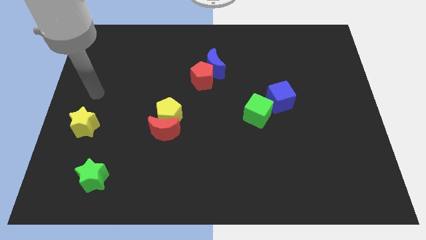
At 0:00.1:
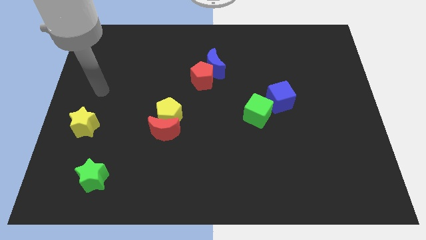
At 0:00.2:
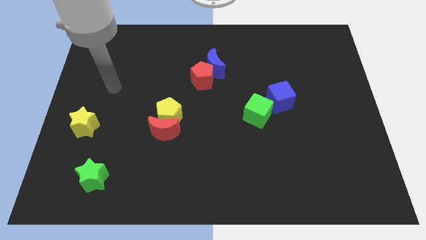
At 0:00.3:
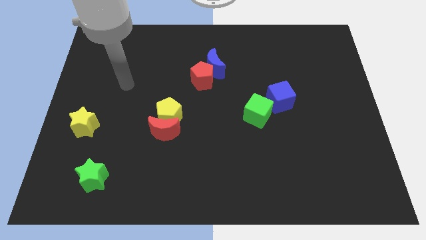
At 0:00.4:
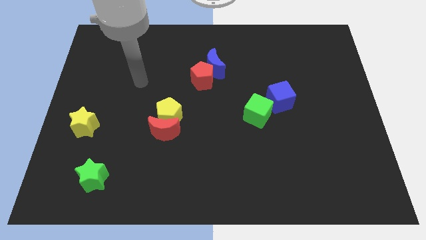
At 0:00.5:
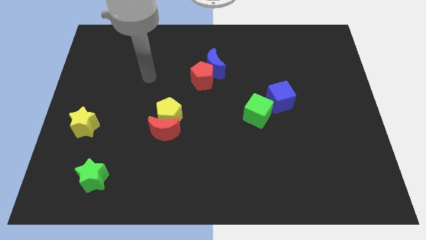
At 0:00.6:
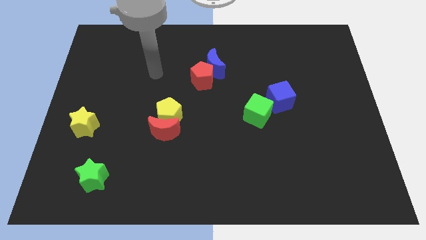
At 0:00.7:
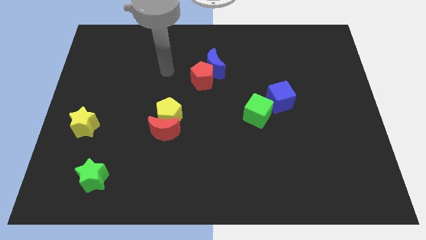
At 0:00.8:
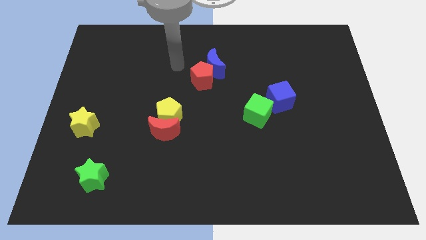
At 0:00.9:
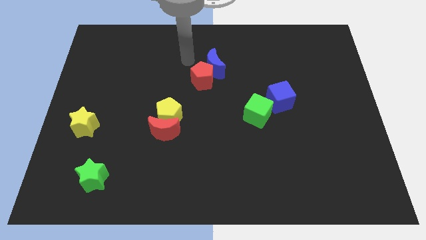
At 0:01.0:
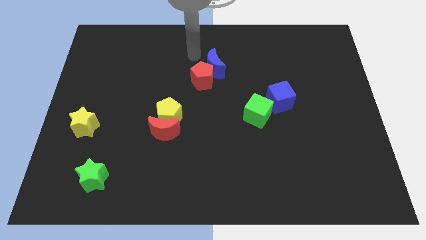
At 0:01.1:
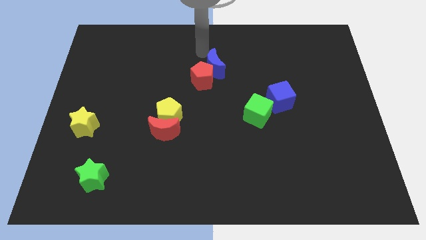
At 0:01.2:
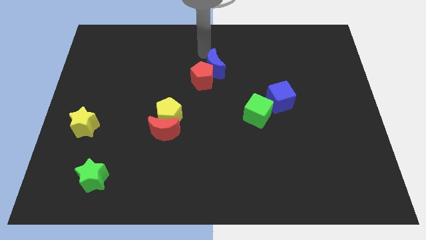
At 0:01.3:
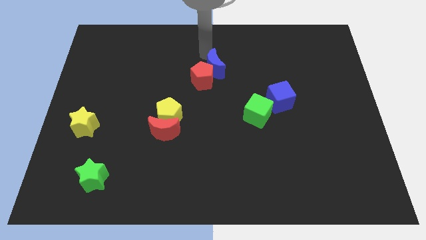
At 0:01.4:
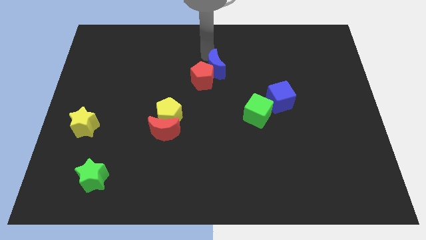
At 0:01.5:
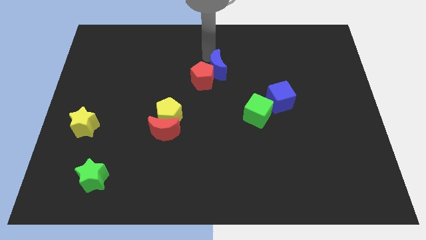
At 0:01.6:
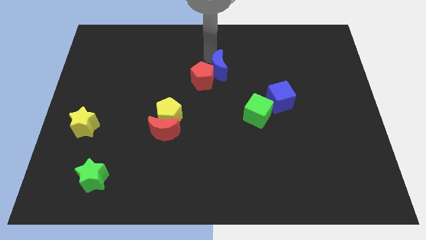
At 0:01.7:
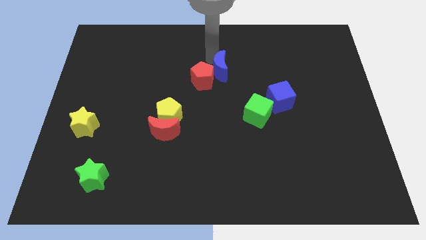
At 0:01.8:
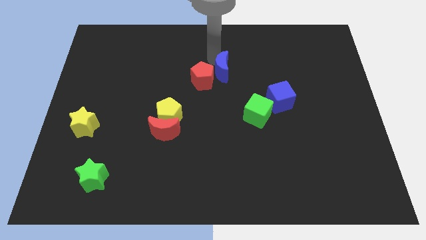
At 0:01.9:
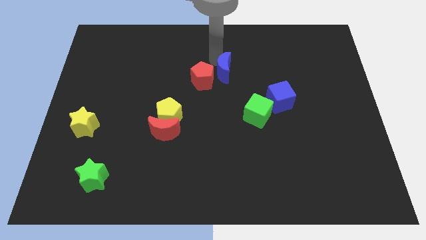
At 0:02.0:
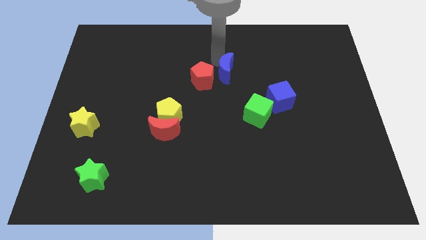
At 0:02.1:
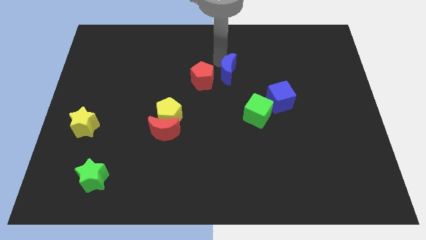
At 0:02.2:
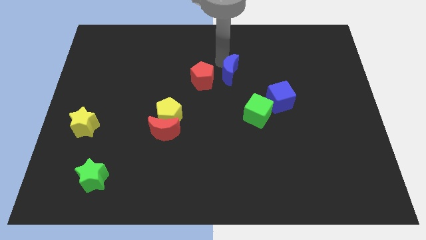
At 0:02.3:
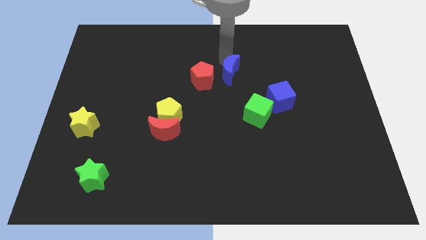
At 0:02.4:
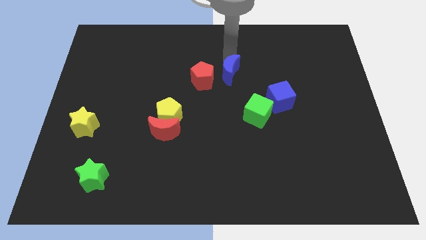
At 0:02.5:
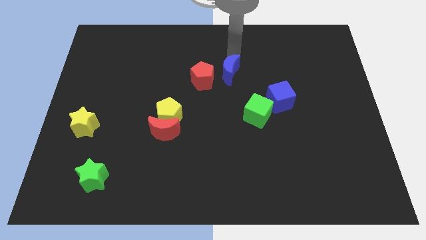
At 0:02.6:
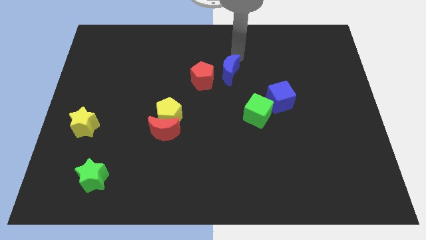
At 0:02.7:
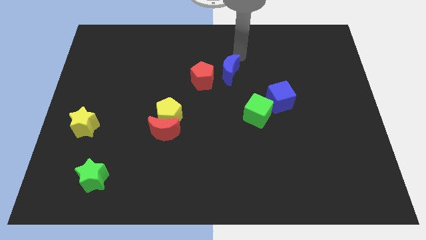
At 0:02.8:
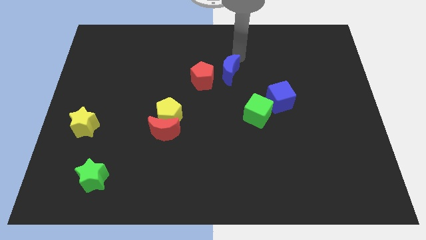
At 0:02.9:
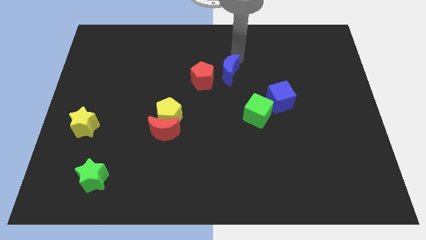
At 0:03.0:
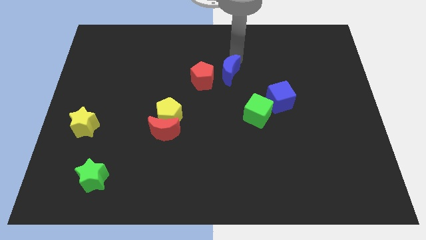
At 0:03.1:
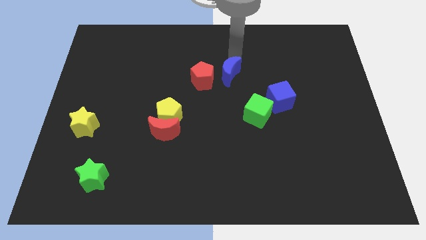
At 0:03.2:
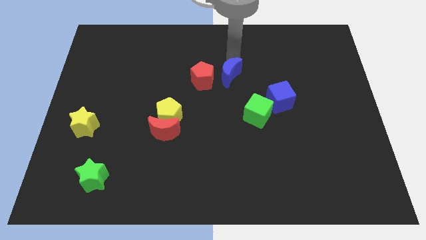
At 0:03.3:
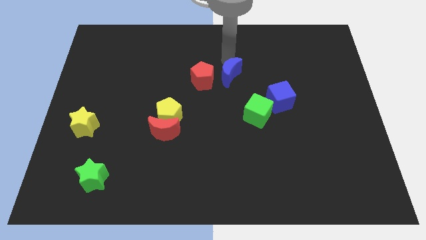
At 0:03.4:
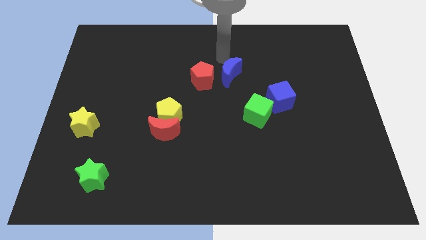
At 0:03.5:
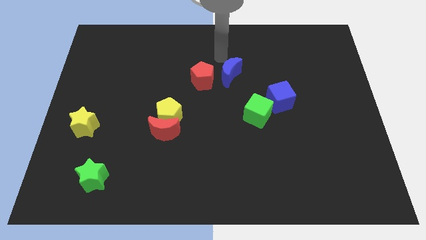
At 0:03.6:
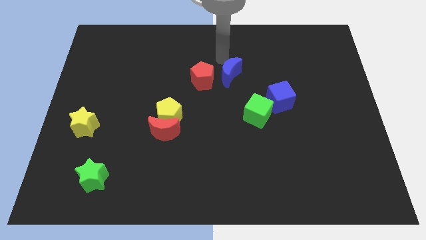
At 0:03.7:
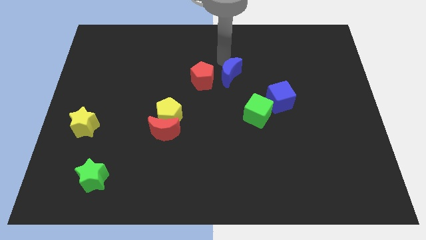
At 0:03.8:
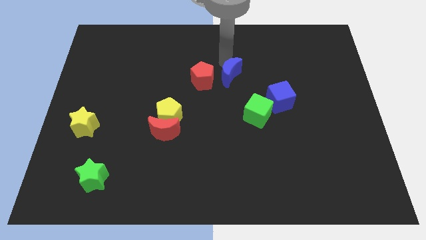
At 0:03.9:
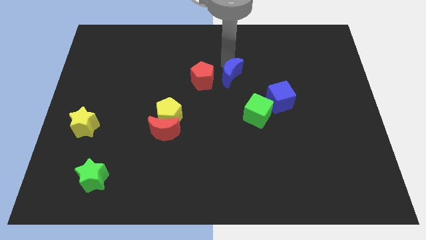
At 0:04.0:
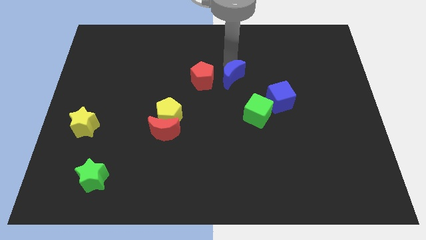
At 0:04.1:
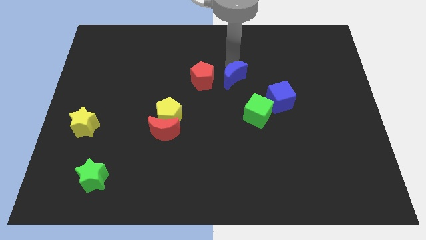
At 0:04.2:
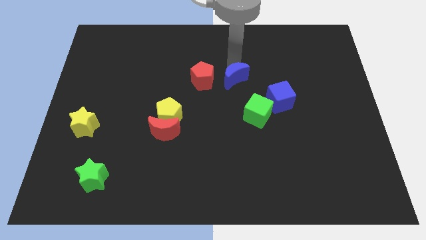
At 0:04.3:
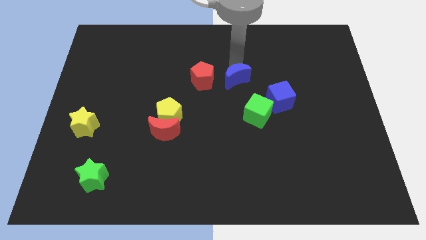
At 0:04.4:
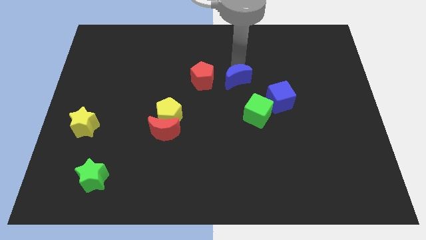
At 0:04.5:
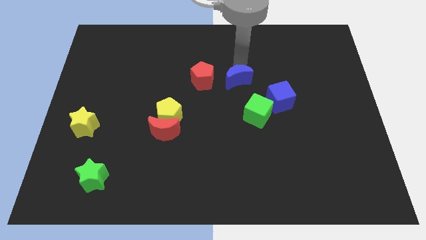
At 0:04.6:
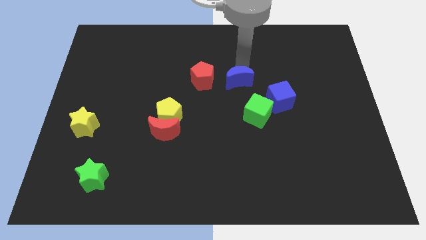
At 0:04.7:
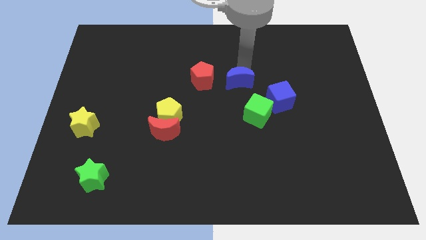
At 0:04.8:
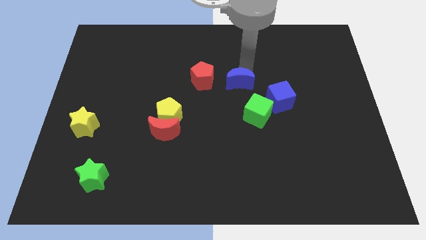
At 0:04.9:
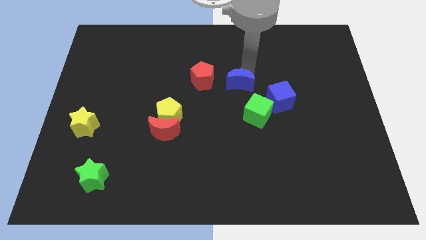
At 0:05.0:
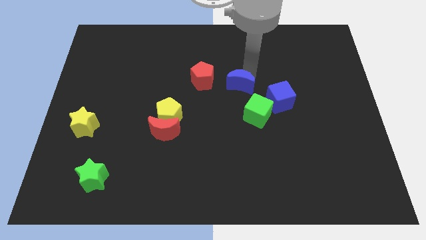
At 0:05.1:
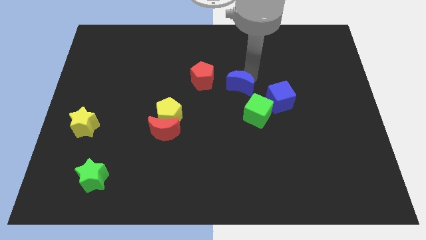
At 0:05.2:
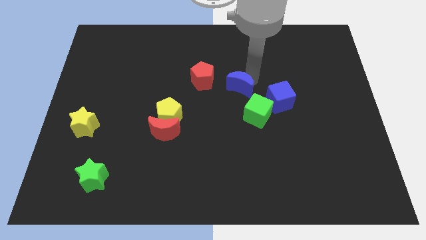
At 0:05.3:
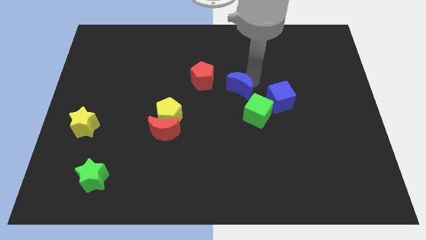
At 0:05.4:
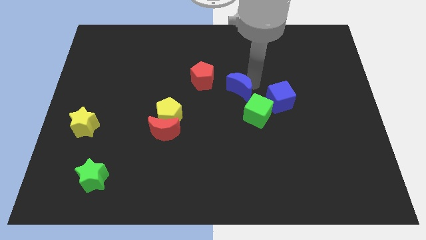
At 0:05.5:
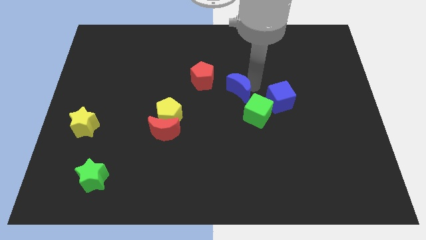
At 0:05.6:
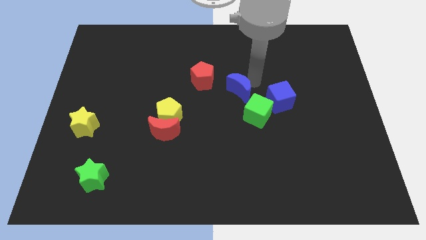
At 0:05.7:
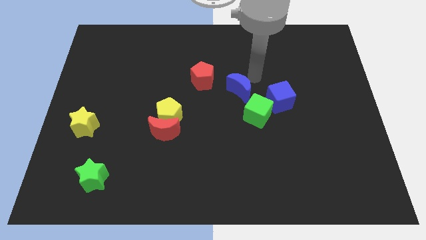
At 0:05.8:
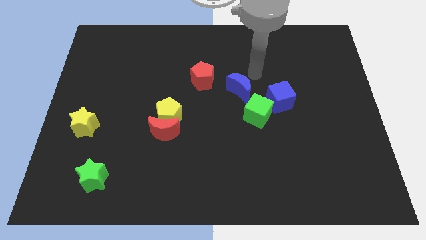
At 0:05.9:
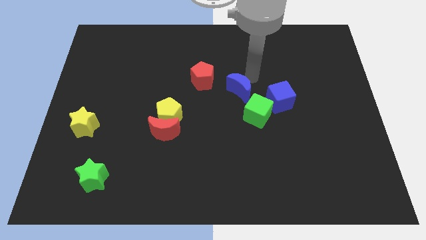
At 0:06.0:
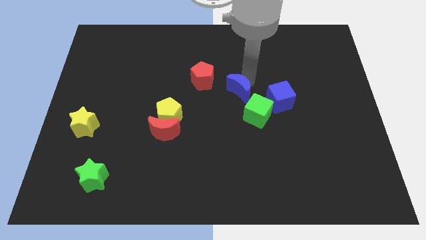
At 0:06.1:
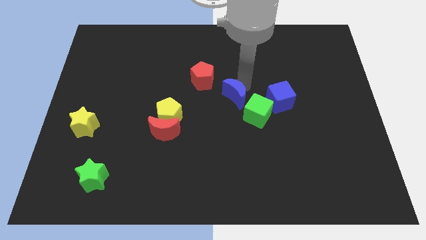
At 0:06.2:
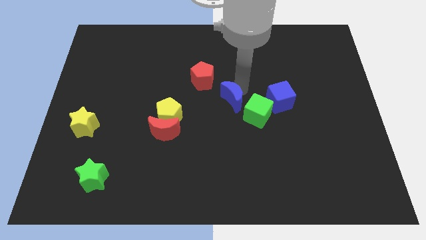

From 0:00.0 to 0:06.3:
move the blue moon just left of the green cube
